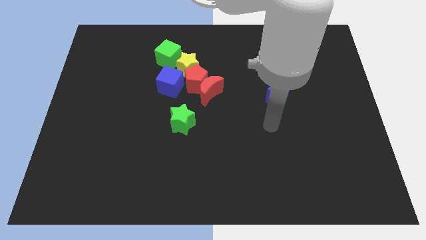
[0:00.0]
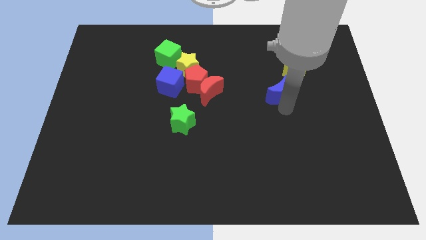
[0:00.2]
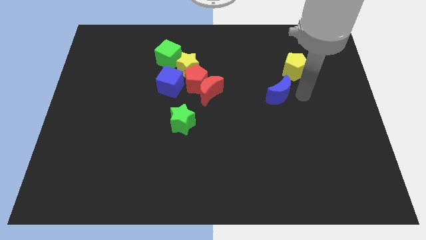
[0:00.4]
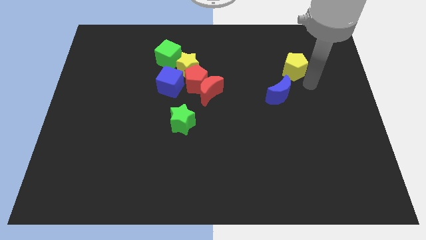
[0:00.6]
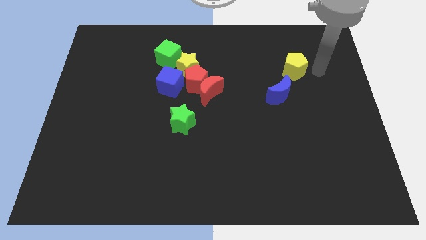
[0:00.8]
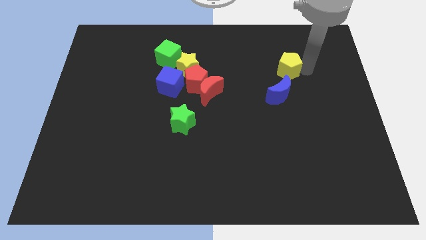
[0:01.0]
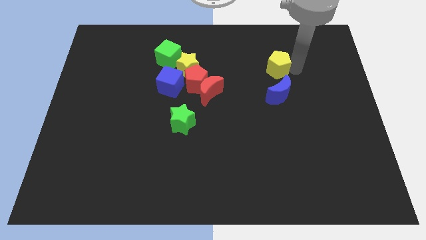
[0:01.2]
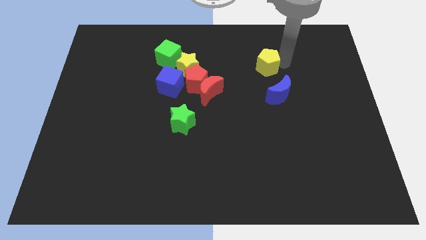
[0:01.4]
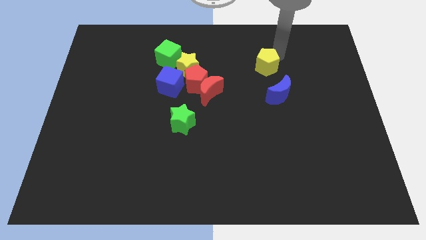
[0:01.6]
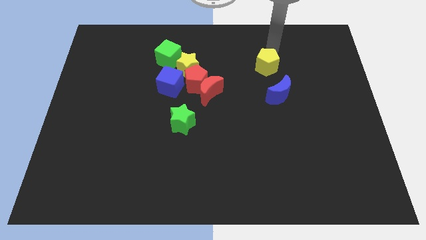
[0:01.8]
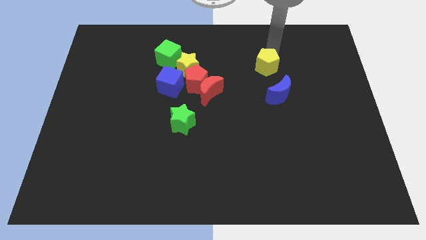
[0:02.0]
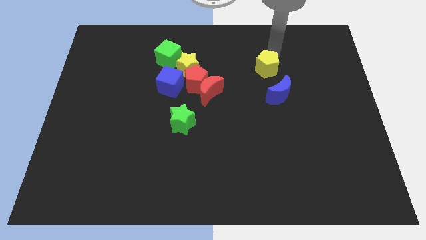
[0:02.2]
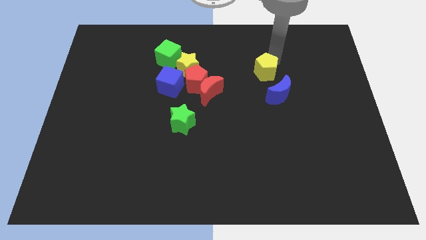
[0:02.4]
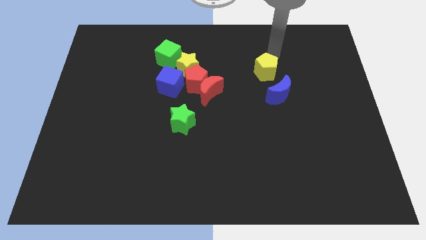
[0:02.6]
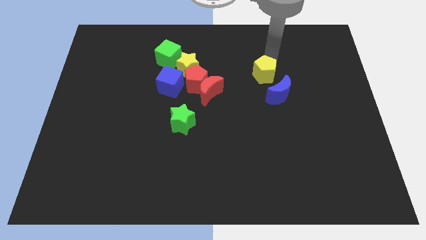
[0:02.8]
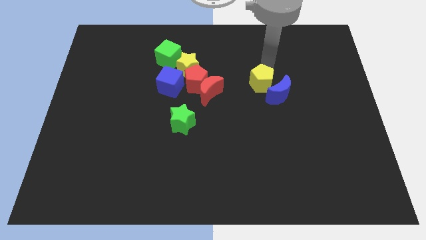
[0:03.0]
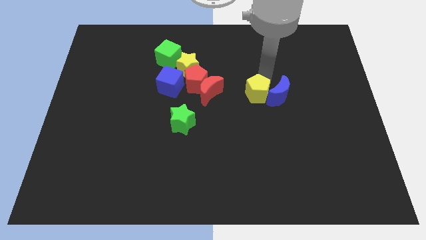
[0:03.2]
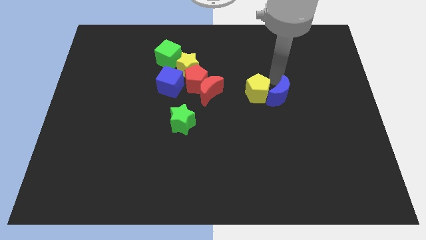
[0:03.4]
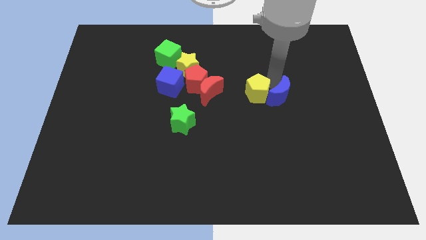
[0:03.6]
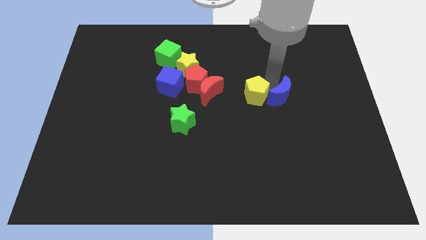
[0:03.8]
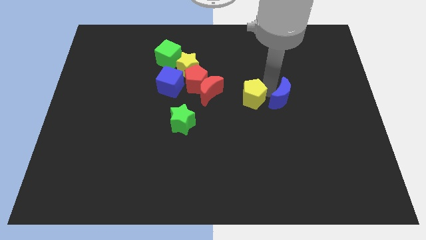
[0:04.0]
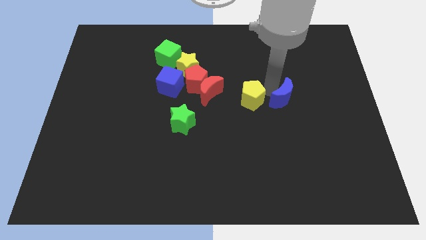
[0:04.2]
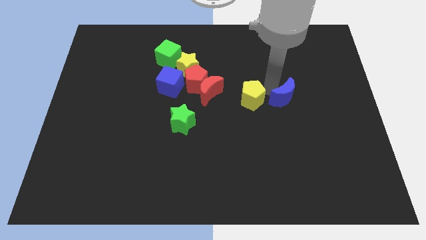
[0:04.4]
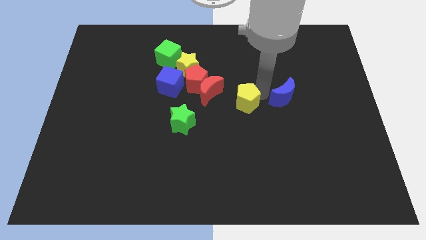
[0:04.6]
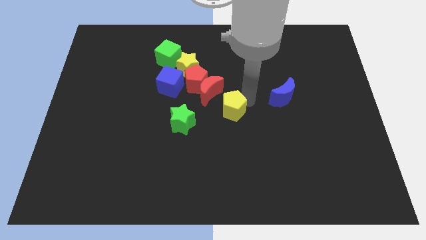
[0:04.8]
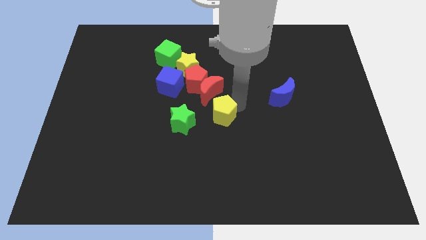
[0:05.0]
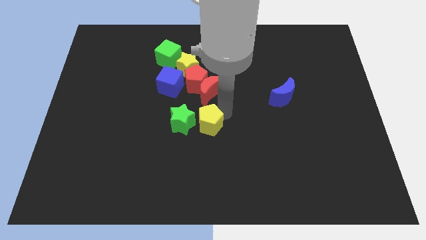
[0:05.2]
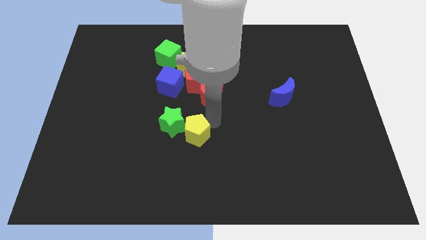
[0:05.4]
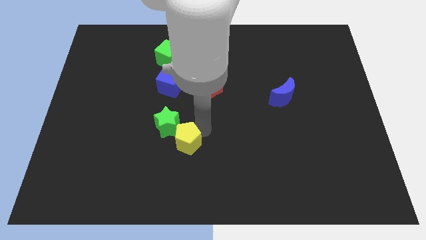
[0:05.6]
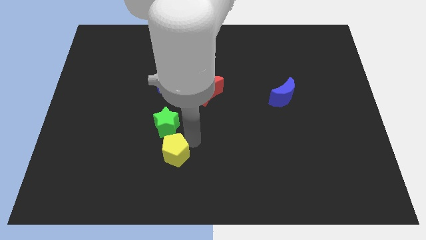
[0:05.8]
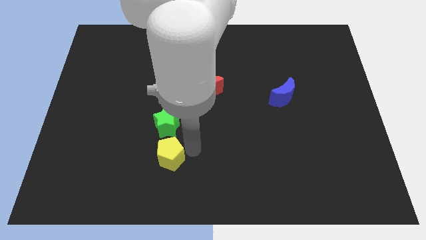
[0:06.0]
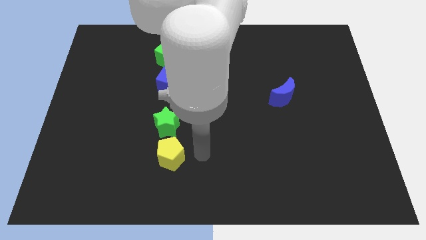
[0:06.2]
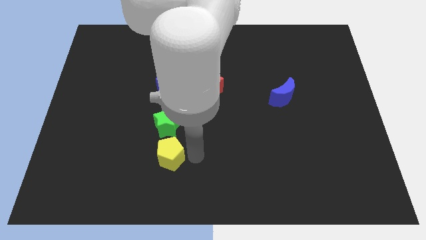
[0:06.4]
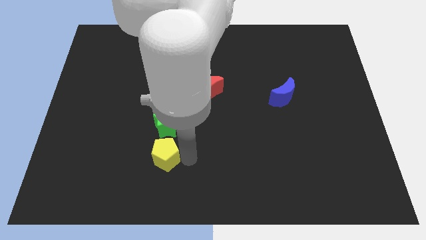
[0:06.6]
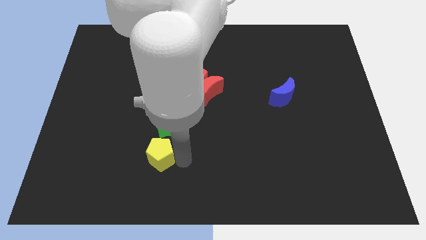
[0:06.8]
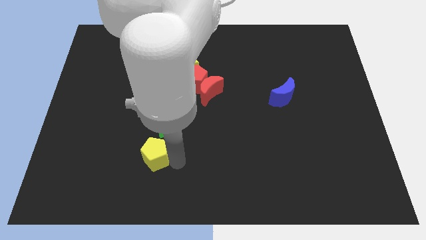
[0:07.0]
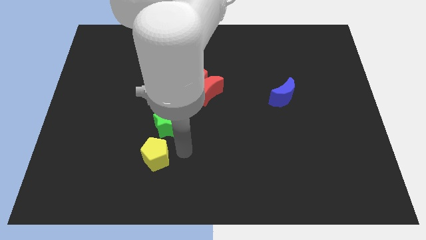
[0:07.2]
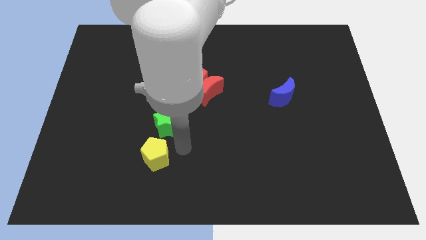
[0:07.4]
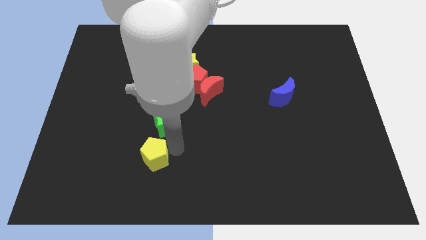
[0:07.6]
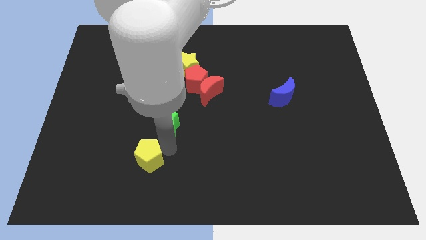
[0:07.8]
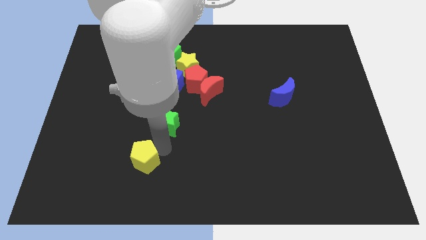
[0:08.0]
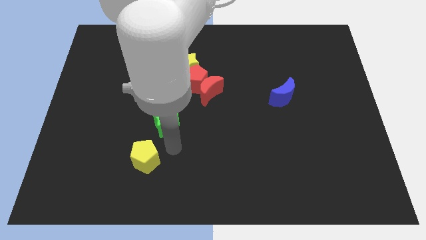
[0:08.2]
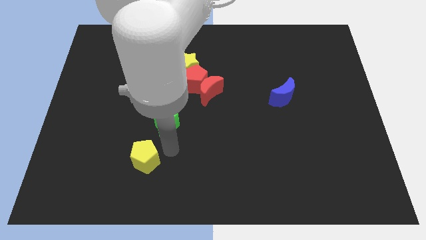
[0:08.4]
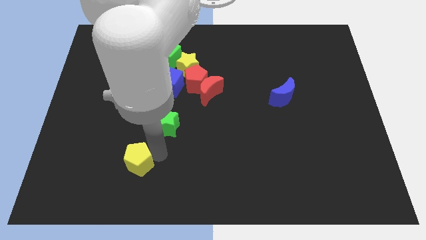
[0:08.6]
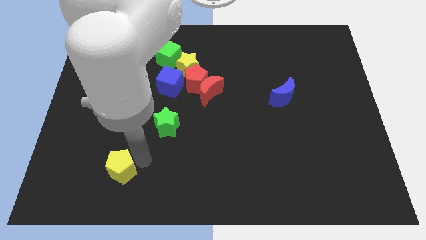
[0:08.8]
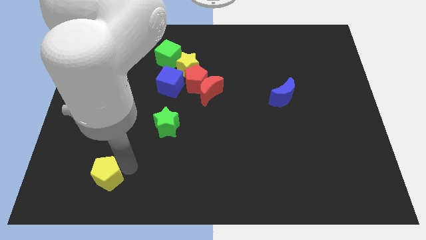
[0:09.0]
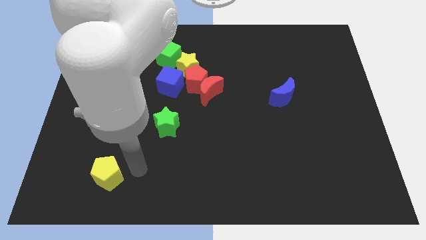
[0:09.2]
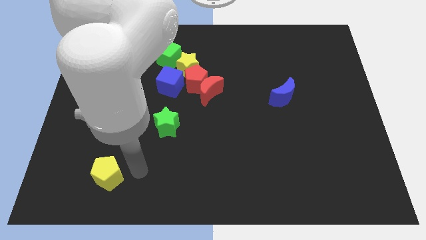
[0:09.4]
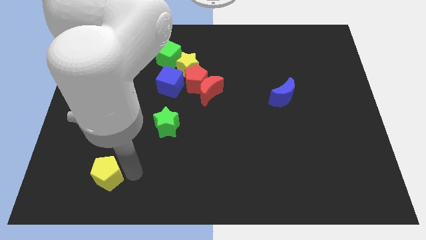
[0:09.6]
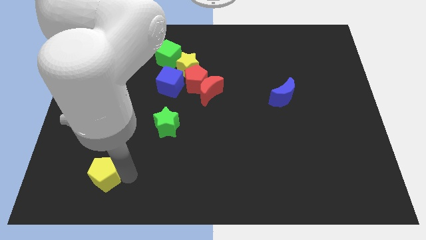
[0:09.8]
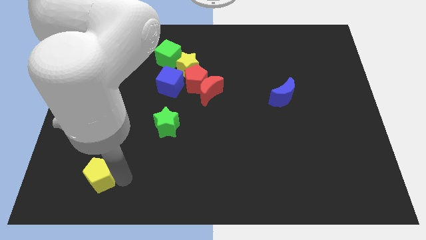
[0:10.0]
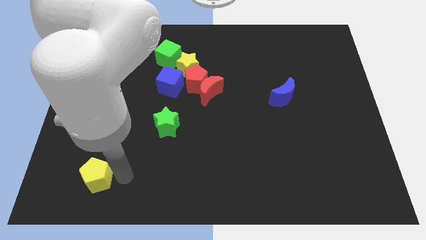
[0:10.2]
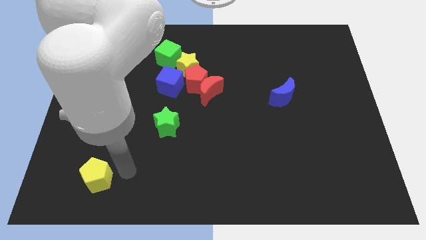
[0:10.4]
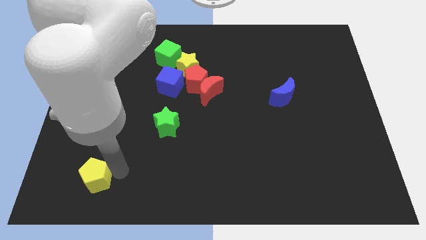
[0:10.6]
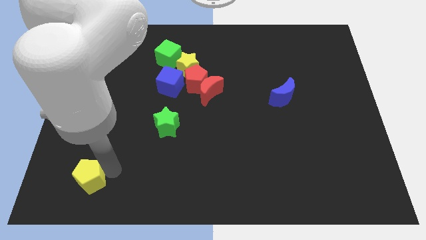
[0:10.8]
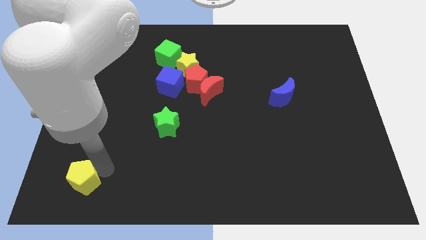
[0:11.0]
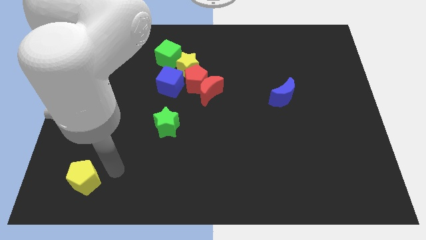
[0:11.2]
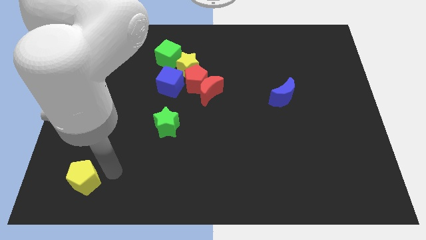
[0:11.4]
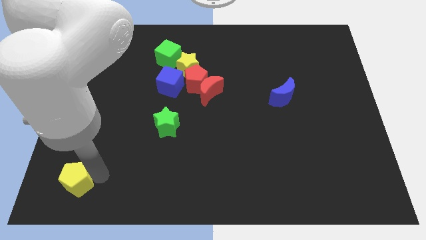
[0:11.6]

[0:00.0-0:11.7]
slide the yellow pentagon to the bottom left of the board
